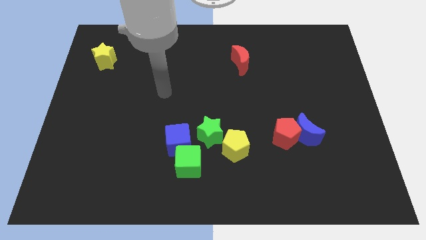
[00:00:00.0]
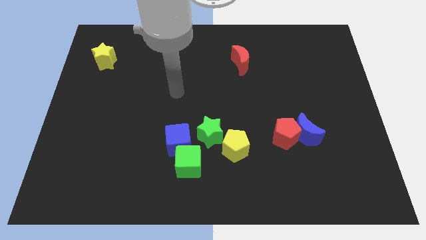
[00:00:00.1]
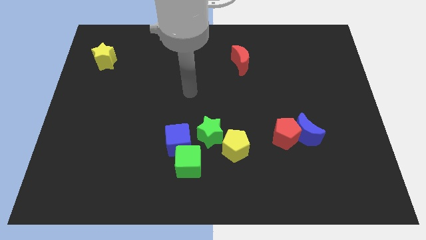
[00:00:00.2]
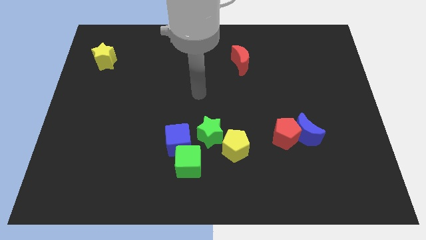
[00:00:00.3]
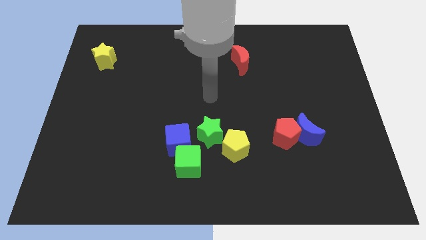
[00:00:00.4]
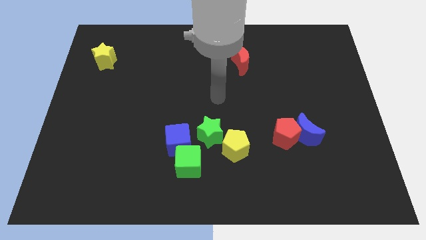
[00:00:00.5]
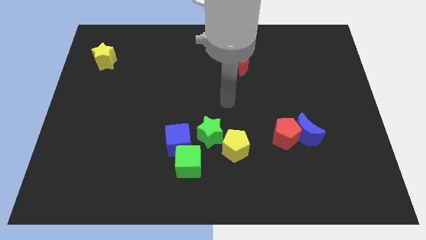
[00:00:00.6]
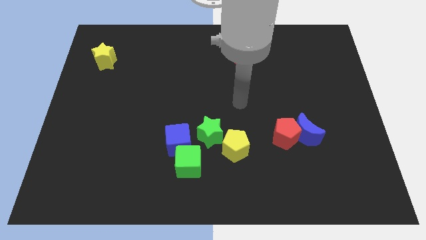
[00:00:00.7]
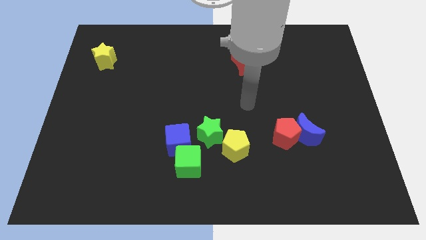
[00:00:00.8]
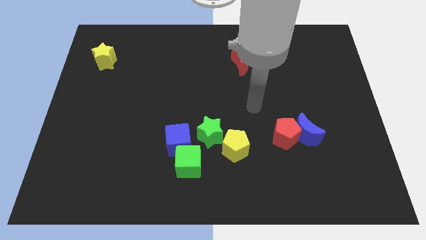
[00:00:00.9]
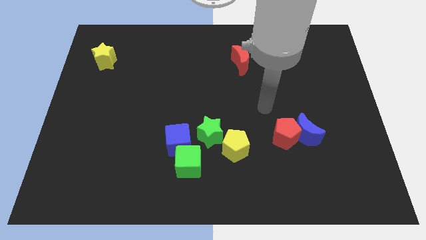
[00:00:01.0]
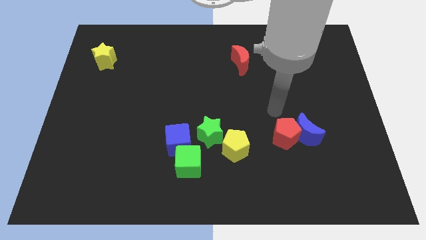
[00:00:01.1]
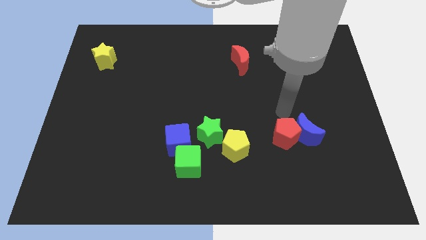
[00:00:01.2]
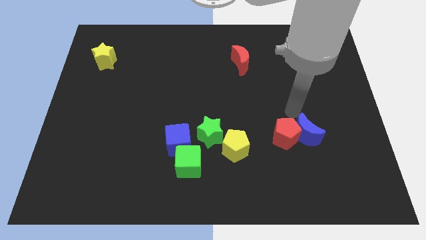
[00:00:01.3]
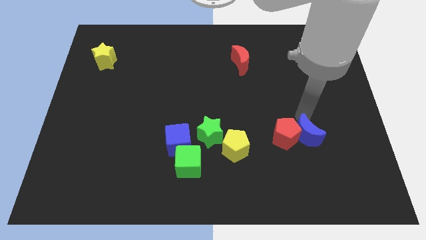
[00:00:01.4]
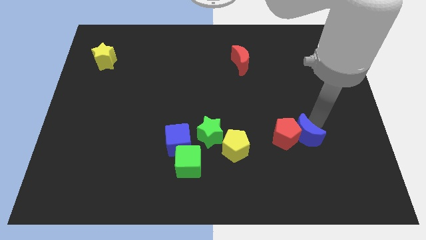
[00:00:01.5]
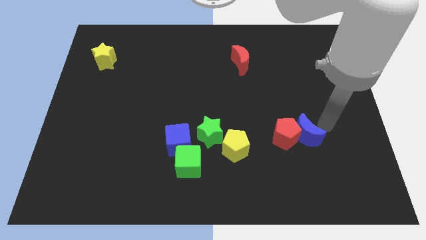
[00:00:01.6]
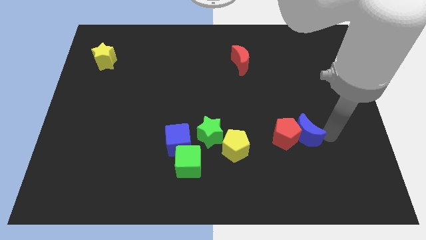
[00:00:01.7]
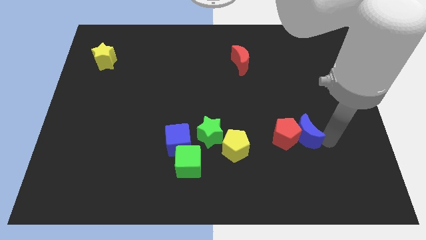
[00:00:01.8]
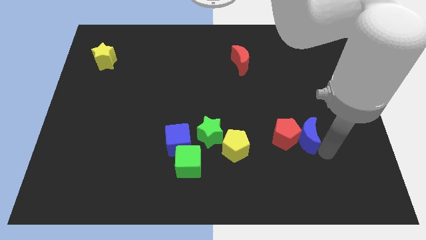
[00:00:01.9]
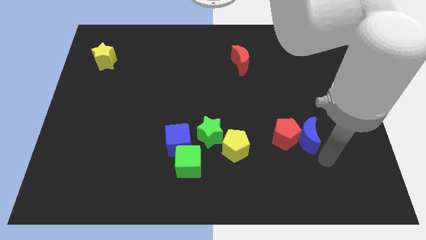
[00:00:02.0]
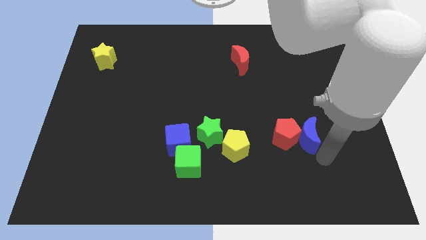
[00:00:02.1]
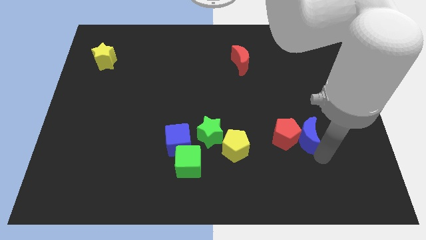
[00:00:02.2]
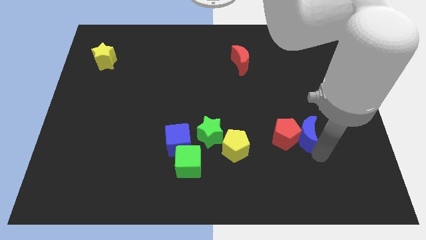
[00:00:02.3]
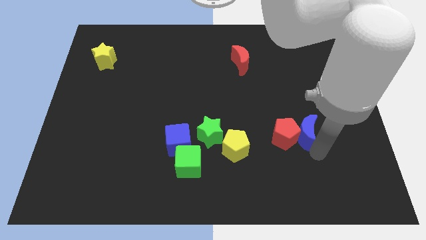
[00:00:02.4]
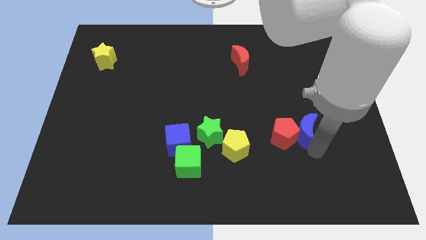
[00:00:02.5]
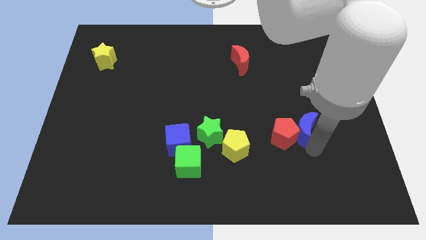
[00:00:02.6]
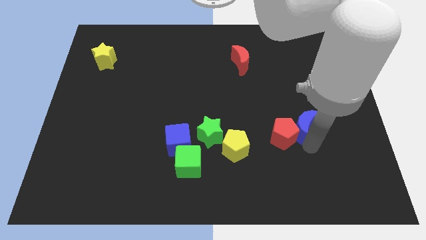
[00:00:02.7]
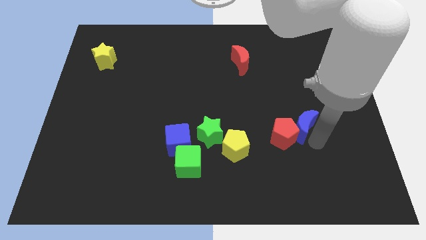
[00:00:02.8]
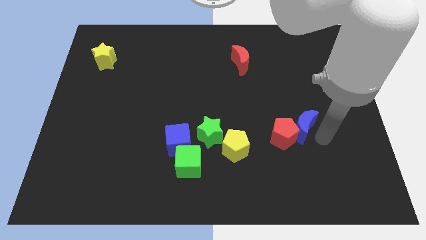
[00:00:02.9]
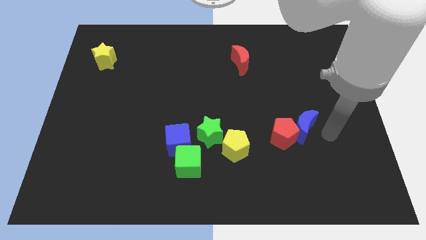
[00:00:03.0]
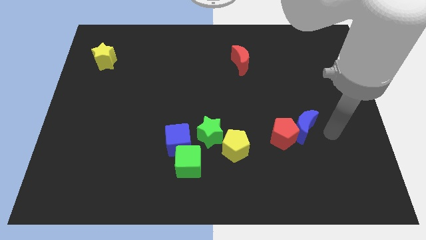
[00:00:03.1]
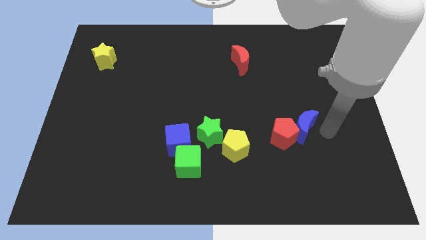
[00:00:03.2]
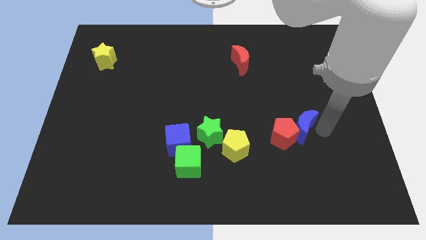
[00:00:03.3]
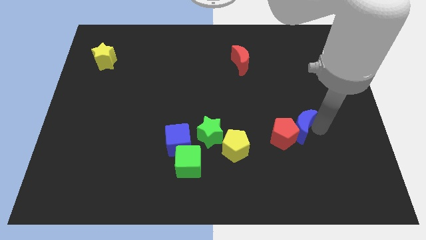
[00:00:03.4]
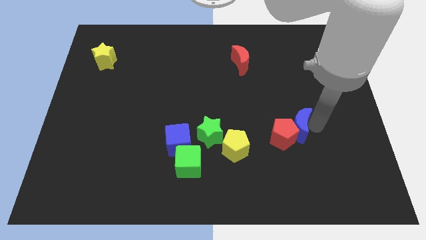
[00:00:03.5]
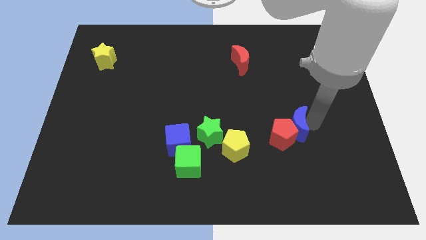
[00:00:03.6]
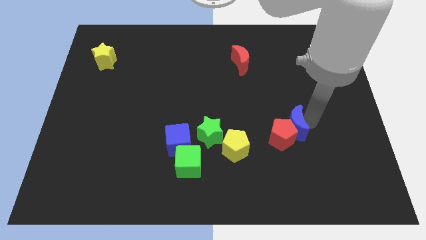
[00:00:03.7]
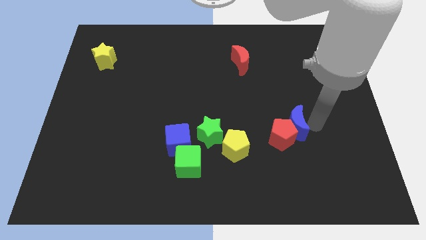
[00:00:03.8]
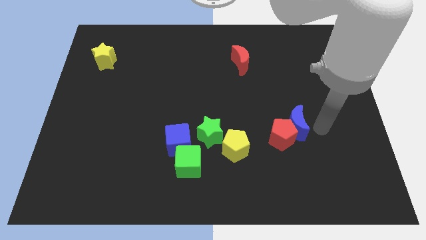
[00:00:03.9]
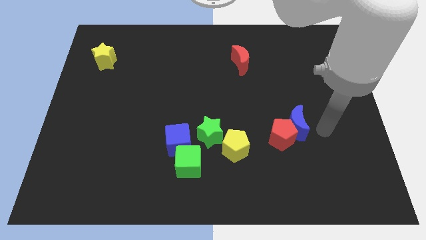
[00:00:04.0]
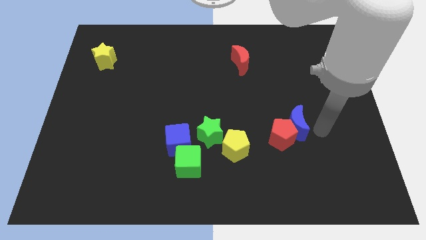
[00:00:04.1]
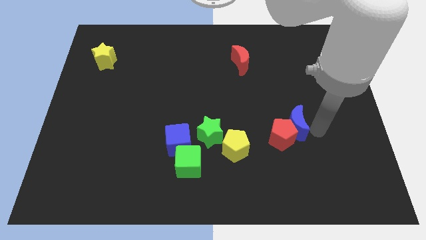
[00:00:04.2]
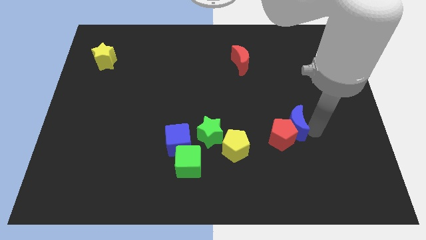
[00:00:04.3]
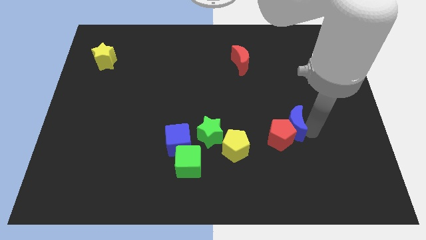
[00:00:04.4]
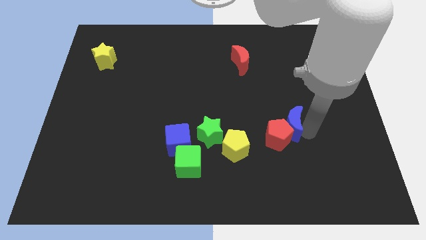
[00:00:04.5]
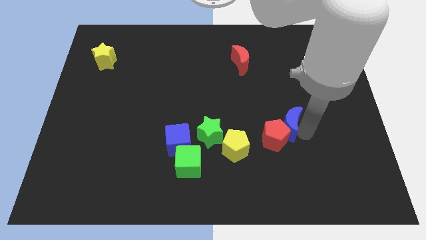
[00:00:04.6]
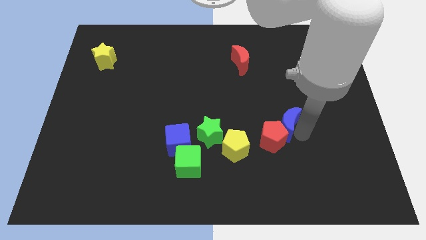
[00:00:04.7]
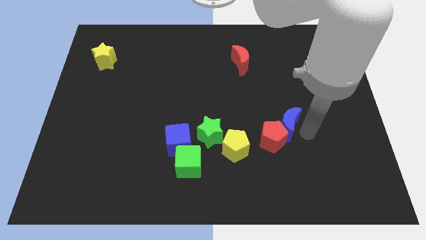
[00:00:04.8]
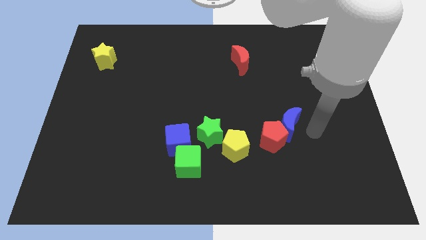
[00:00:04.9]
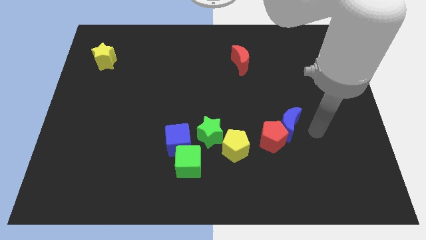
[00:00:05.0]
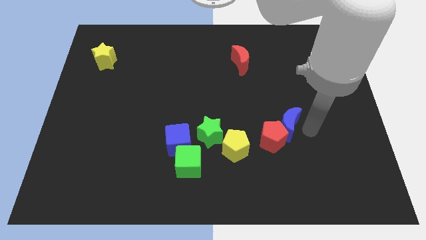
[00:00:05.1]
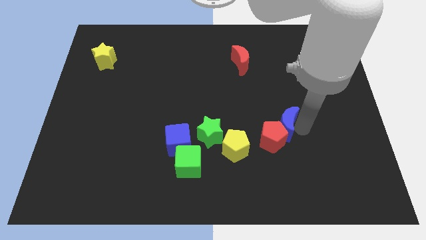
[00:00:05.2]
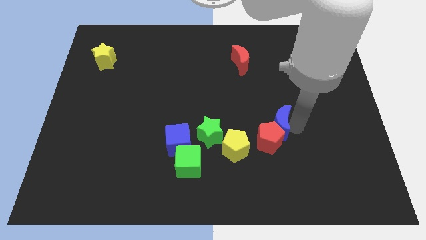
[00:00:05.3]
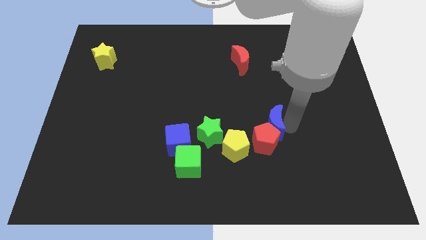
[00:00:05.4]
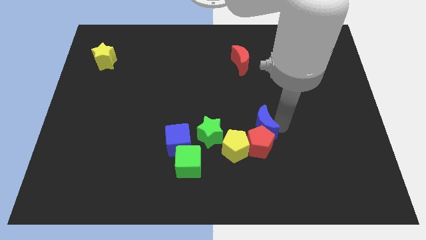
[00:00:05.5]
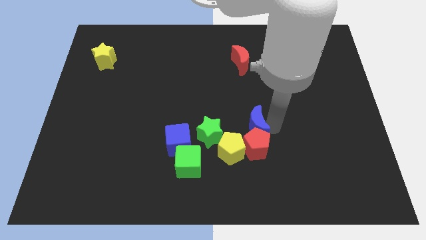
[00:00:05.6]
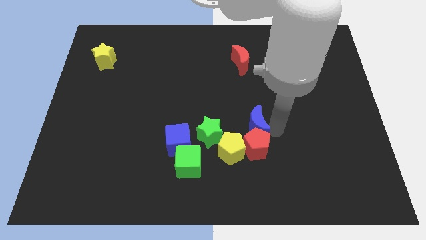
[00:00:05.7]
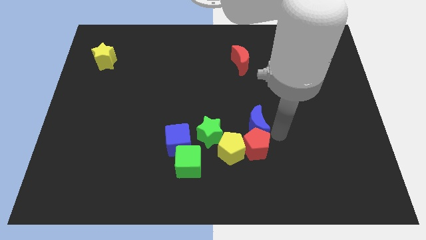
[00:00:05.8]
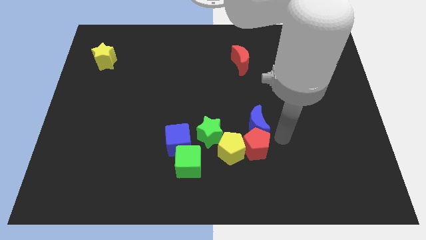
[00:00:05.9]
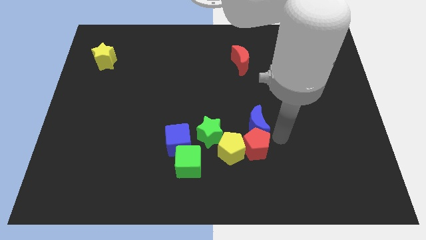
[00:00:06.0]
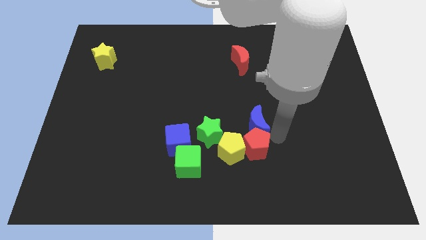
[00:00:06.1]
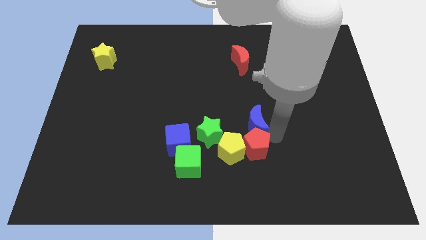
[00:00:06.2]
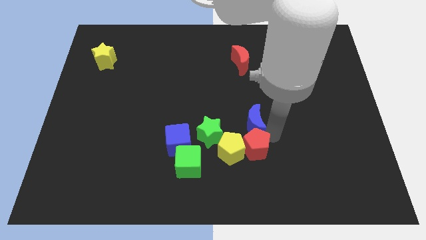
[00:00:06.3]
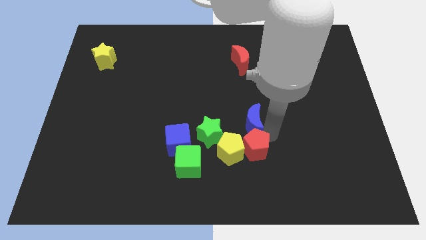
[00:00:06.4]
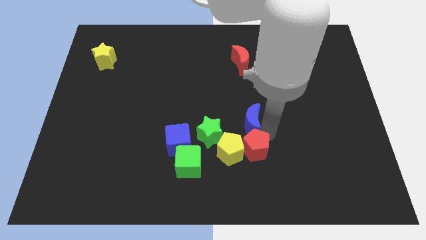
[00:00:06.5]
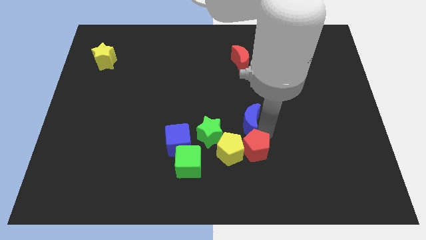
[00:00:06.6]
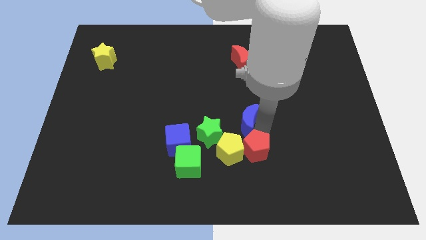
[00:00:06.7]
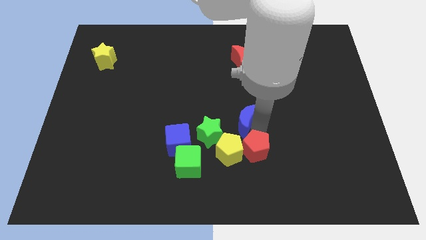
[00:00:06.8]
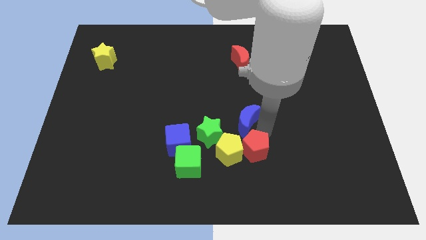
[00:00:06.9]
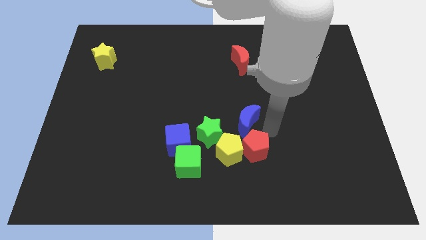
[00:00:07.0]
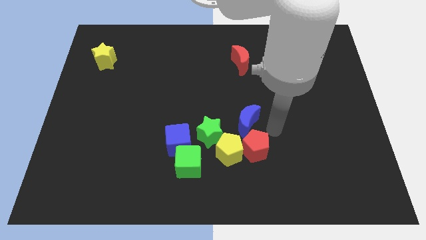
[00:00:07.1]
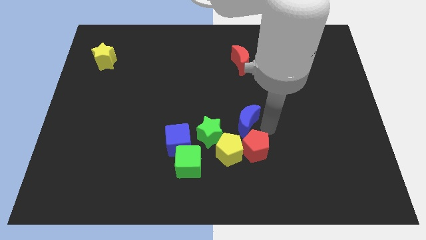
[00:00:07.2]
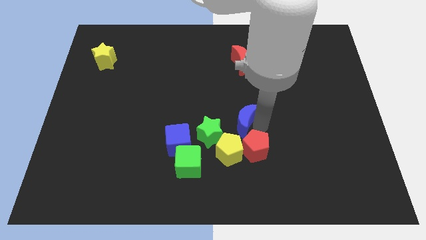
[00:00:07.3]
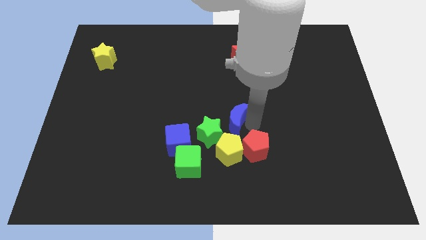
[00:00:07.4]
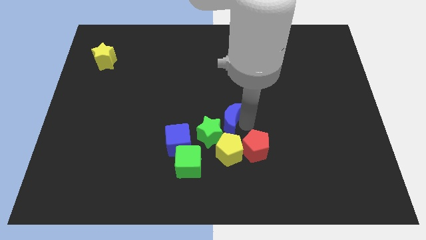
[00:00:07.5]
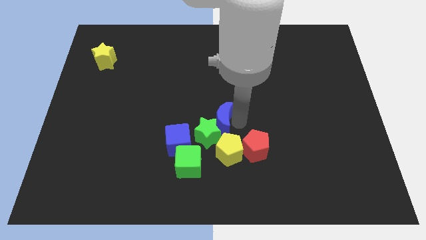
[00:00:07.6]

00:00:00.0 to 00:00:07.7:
put the blue moon to the top right side of the blue cube

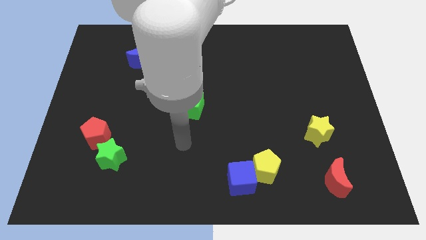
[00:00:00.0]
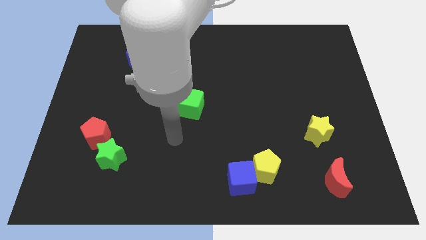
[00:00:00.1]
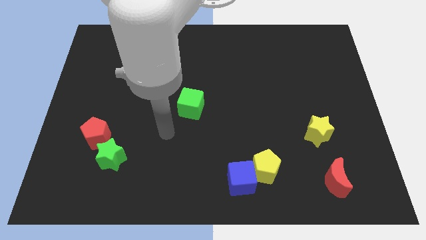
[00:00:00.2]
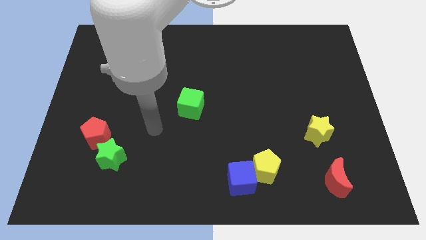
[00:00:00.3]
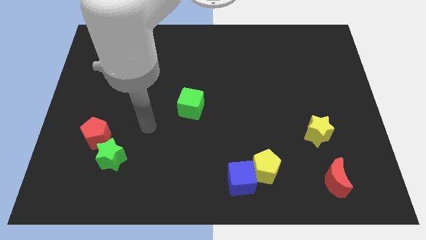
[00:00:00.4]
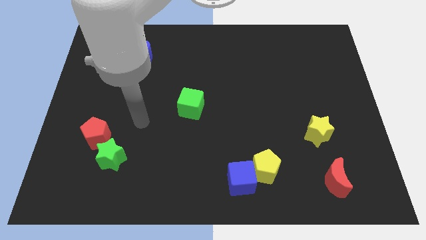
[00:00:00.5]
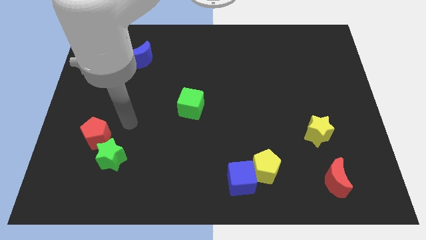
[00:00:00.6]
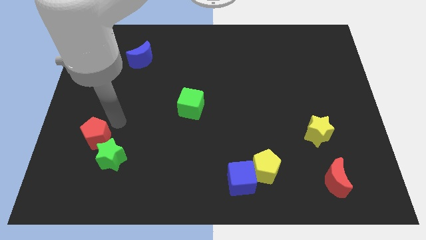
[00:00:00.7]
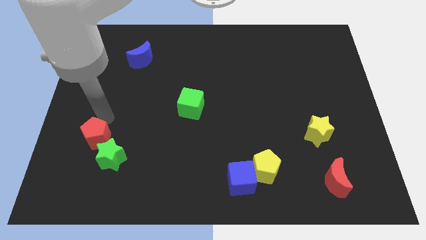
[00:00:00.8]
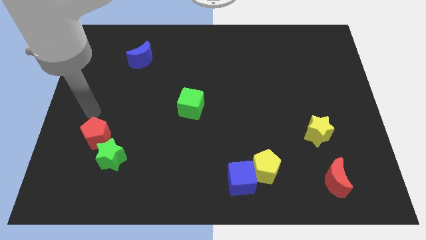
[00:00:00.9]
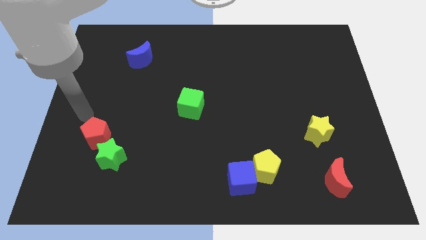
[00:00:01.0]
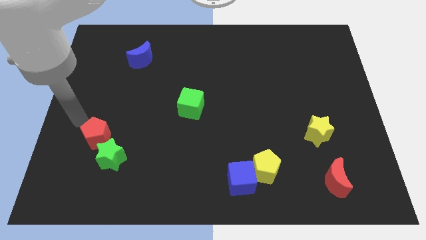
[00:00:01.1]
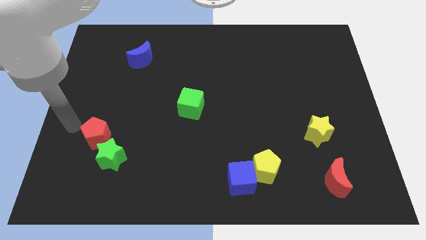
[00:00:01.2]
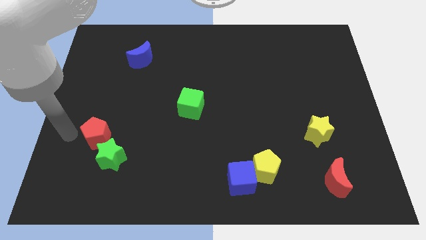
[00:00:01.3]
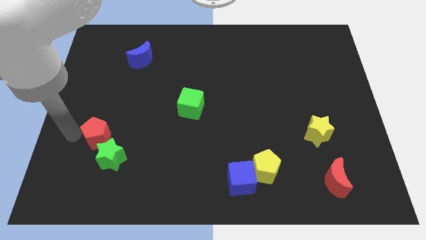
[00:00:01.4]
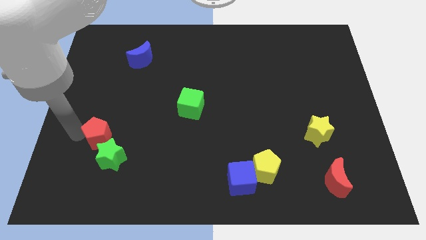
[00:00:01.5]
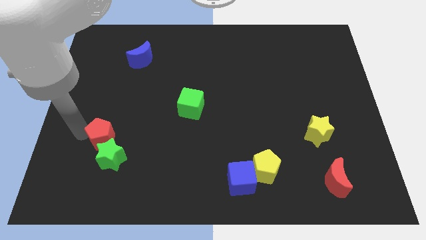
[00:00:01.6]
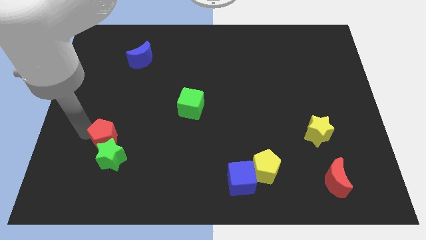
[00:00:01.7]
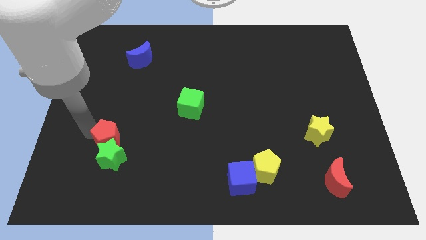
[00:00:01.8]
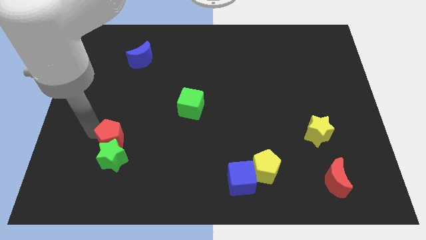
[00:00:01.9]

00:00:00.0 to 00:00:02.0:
slide the red pentagon to the top right side of the green star
